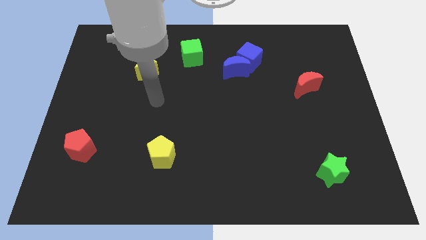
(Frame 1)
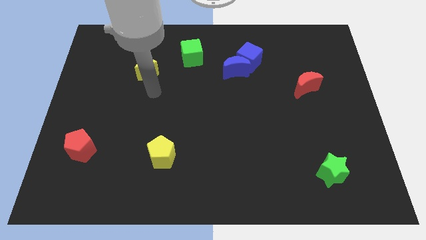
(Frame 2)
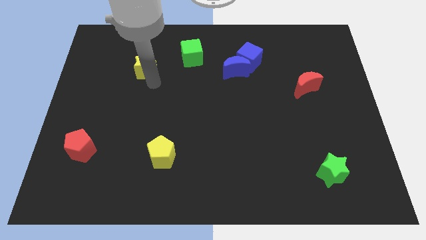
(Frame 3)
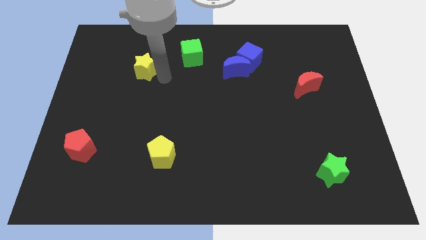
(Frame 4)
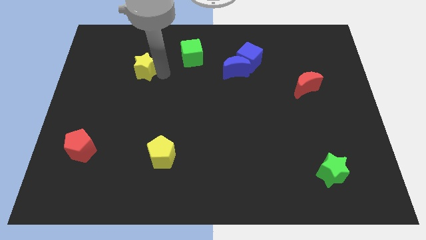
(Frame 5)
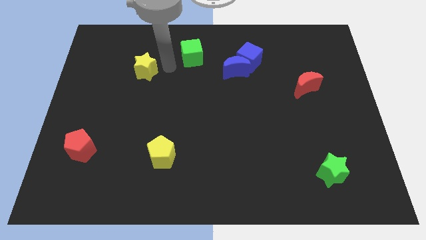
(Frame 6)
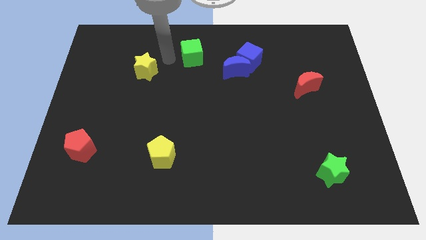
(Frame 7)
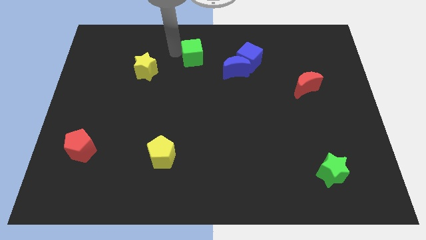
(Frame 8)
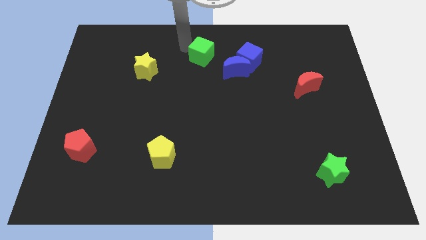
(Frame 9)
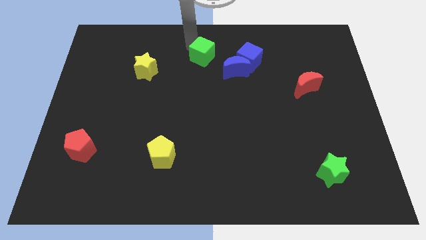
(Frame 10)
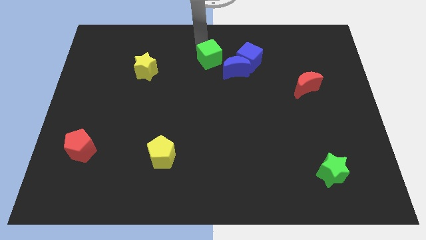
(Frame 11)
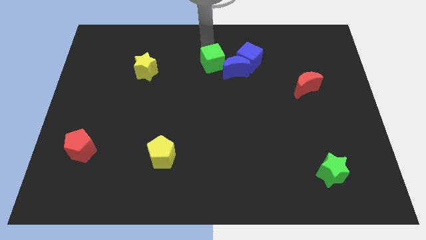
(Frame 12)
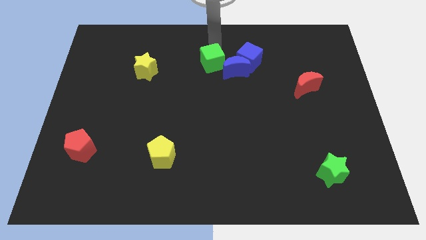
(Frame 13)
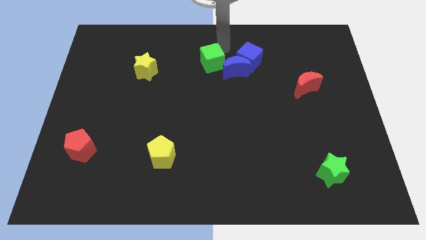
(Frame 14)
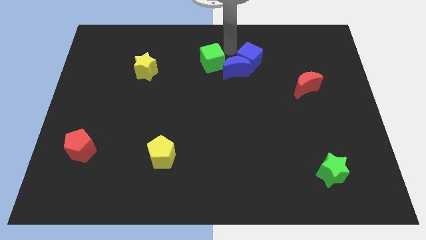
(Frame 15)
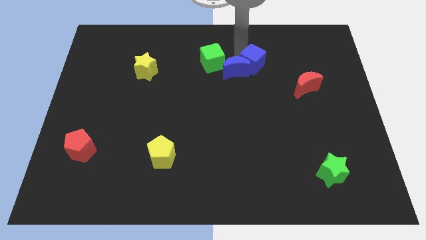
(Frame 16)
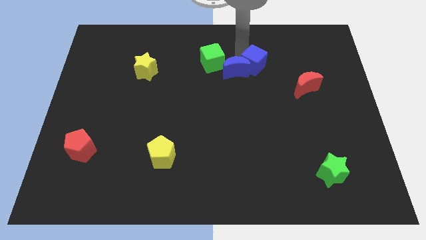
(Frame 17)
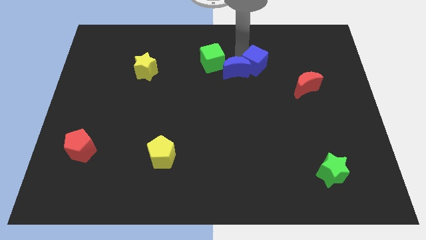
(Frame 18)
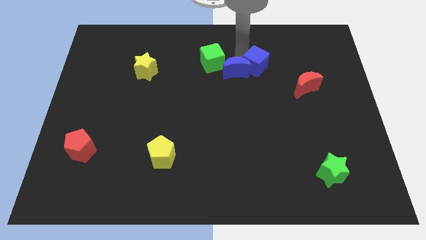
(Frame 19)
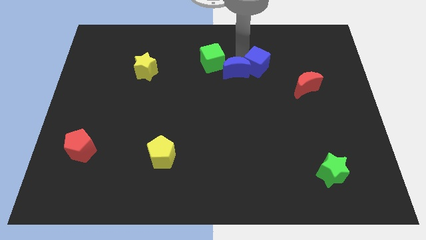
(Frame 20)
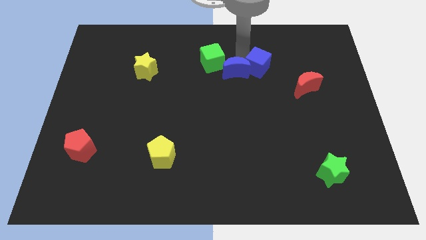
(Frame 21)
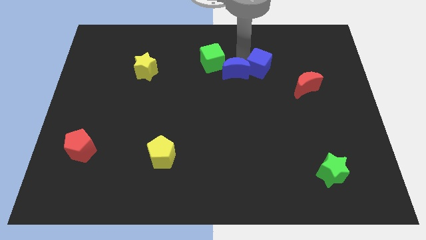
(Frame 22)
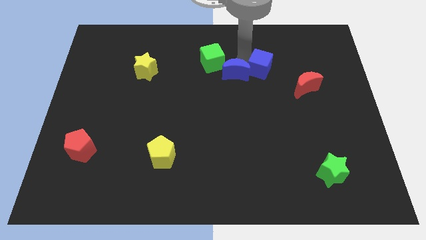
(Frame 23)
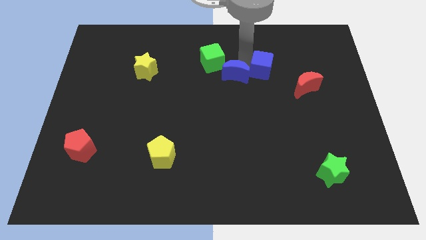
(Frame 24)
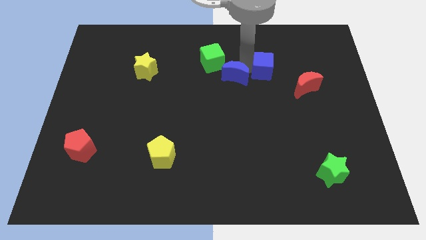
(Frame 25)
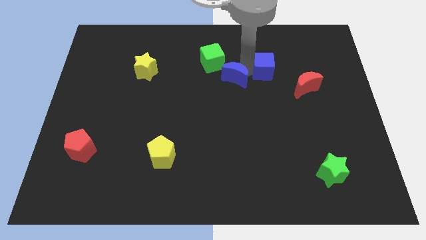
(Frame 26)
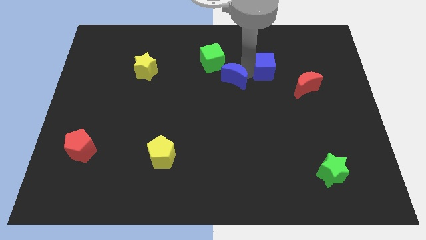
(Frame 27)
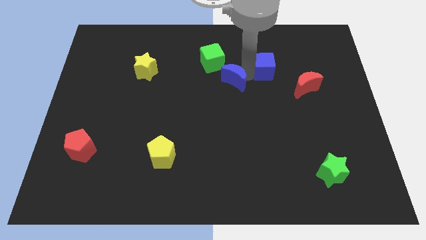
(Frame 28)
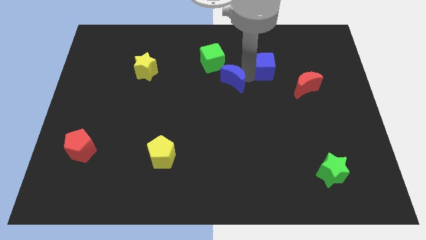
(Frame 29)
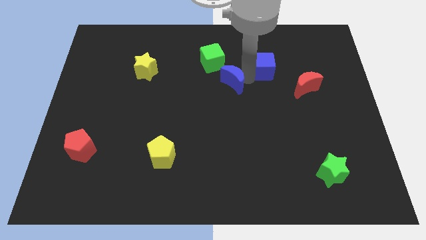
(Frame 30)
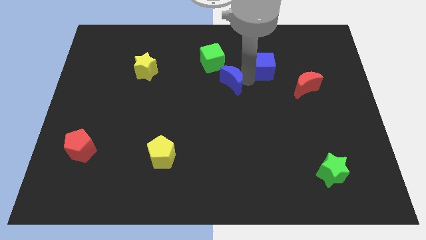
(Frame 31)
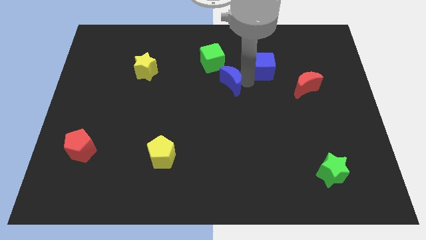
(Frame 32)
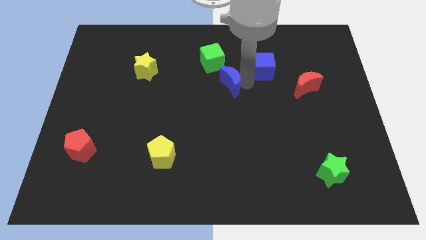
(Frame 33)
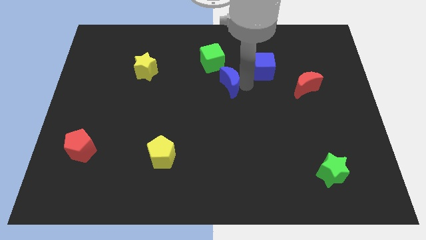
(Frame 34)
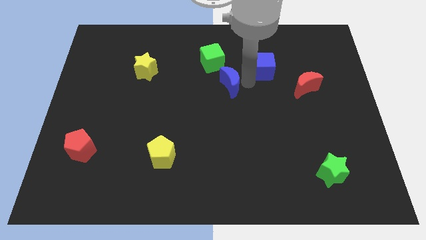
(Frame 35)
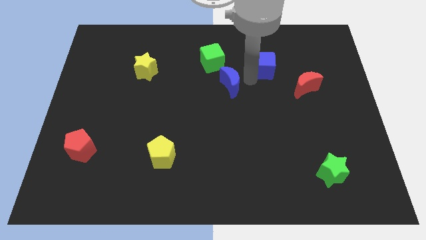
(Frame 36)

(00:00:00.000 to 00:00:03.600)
move the blue moon away from the blue cube

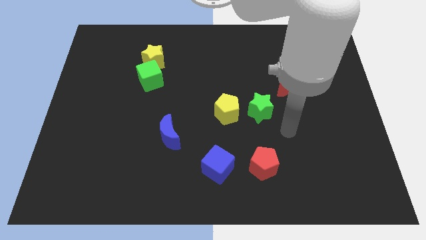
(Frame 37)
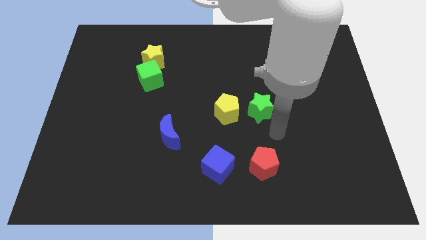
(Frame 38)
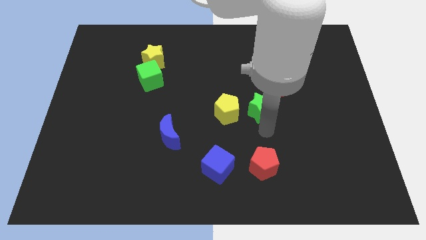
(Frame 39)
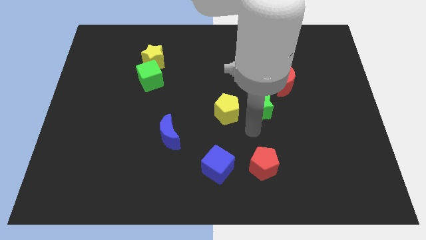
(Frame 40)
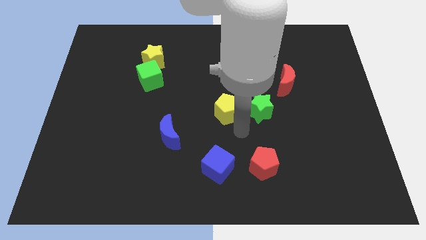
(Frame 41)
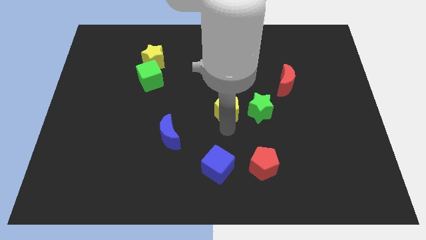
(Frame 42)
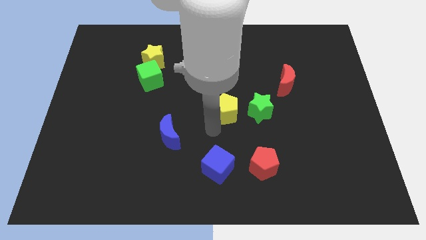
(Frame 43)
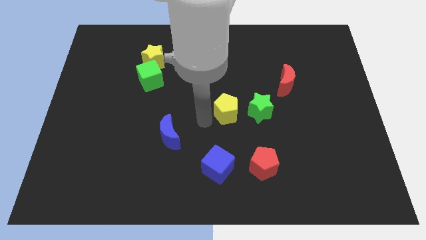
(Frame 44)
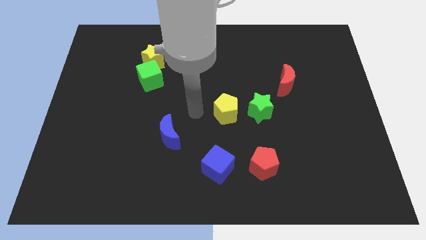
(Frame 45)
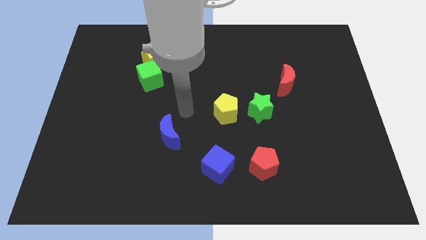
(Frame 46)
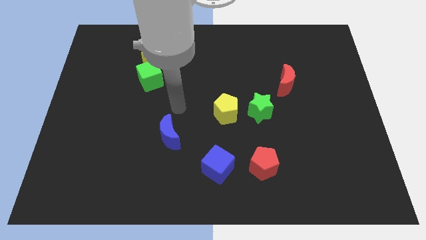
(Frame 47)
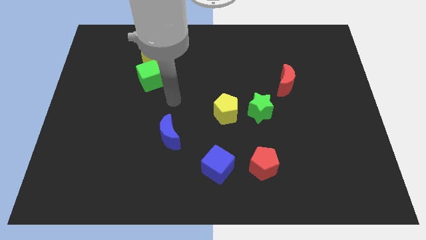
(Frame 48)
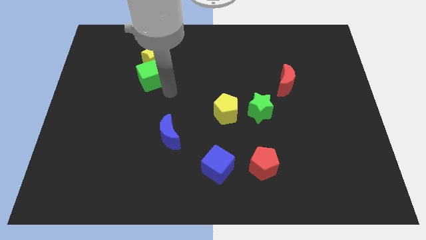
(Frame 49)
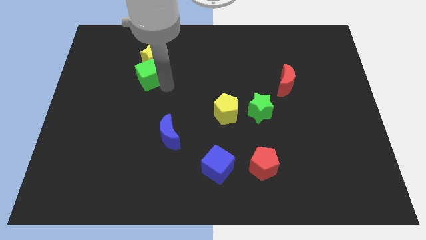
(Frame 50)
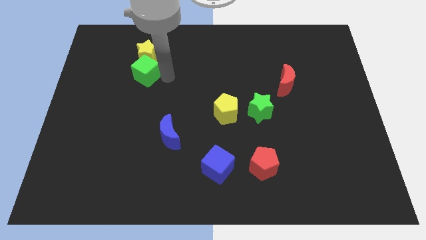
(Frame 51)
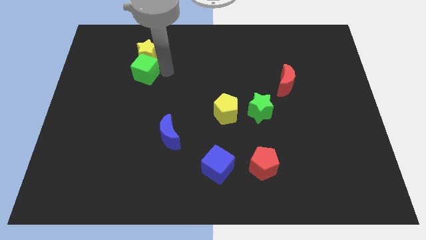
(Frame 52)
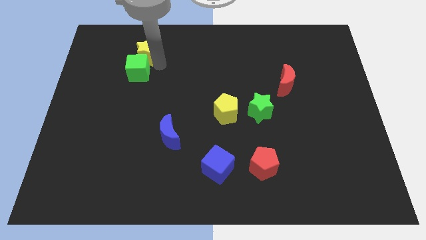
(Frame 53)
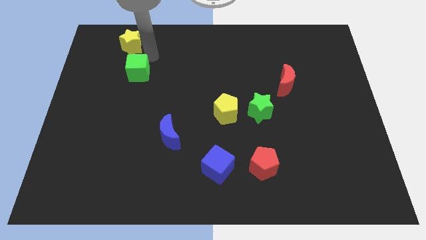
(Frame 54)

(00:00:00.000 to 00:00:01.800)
move the green cube away from the yellow star

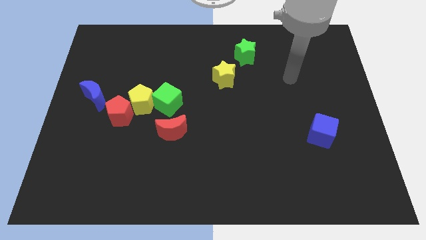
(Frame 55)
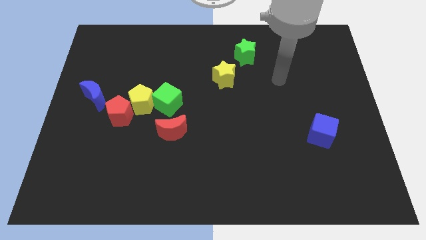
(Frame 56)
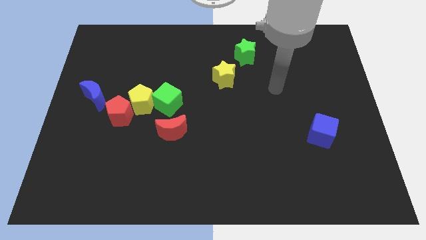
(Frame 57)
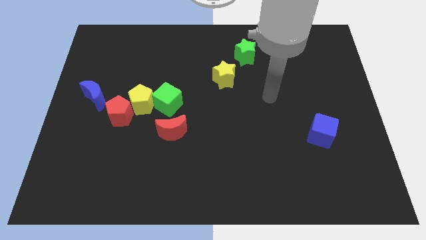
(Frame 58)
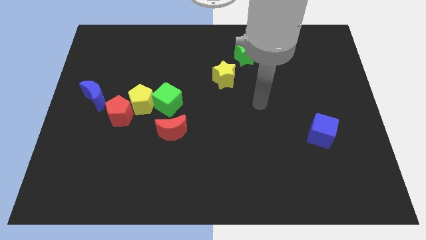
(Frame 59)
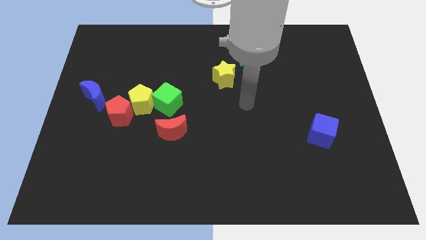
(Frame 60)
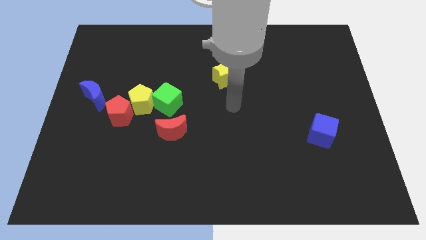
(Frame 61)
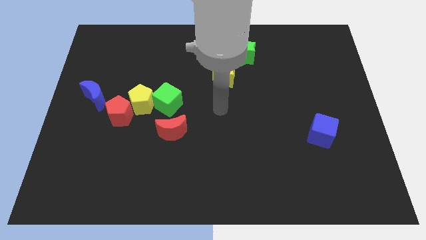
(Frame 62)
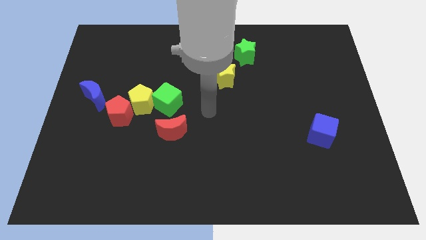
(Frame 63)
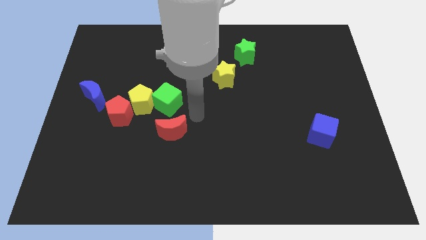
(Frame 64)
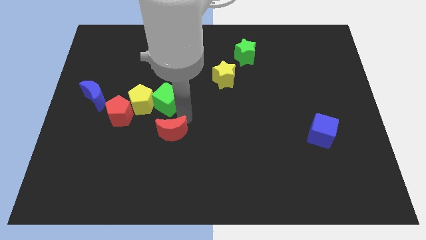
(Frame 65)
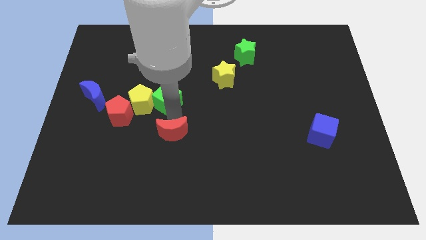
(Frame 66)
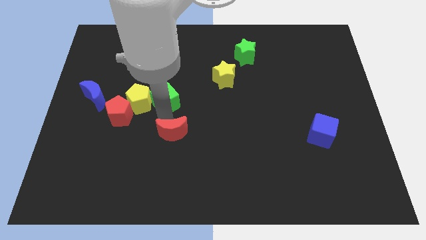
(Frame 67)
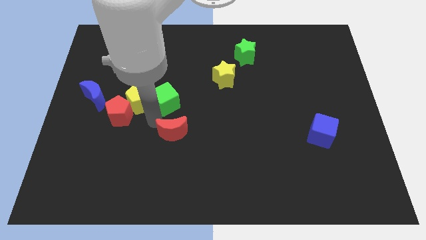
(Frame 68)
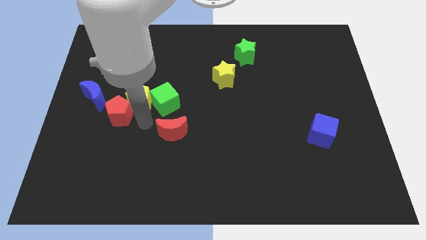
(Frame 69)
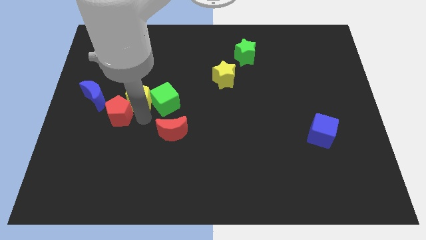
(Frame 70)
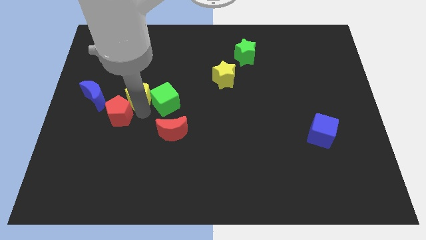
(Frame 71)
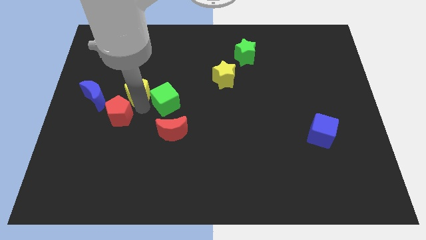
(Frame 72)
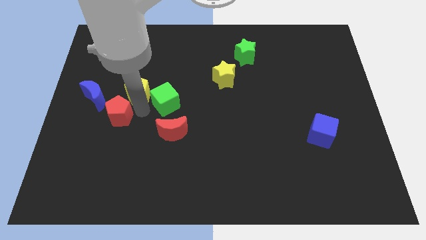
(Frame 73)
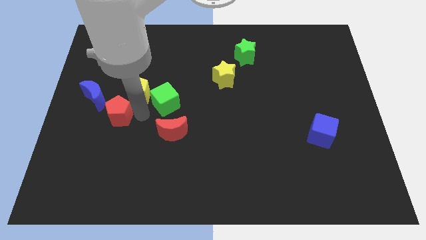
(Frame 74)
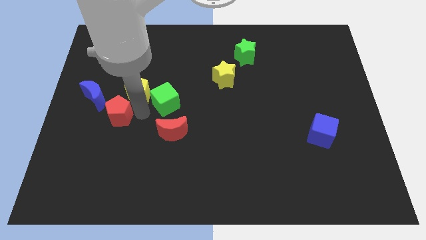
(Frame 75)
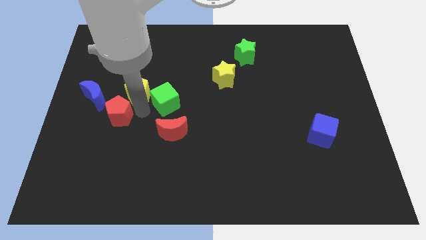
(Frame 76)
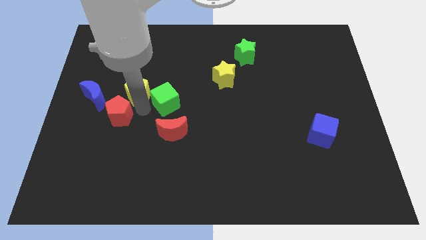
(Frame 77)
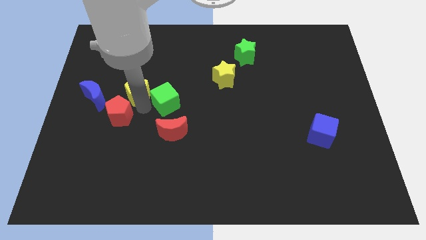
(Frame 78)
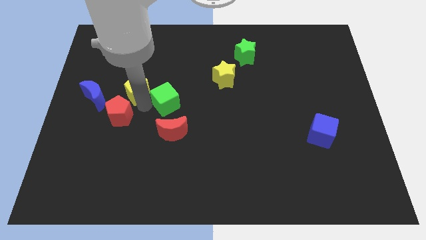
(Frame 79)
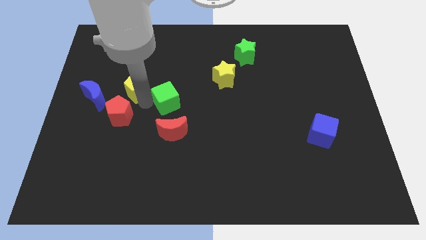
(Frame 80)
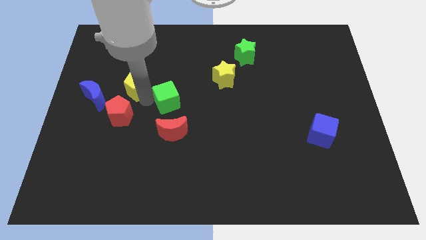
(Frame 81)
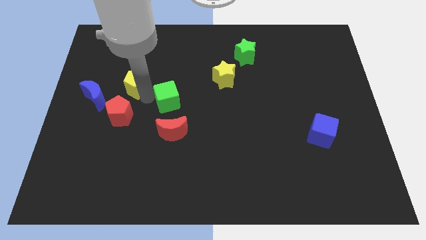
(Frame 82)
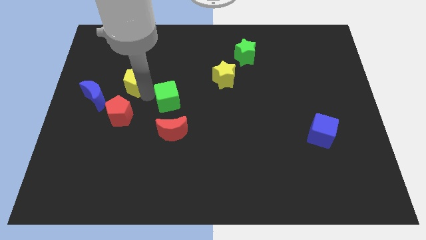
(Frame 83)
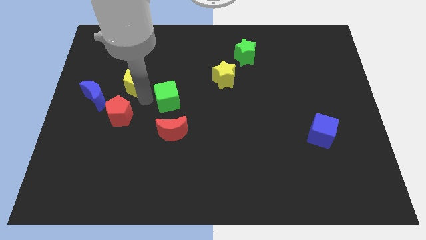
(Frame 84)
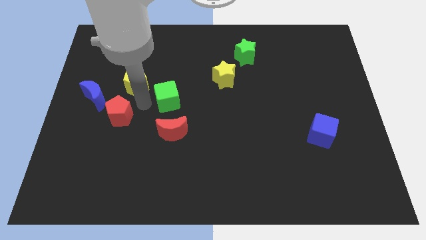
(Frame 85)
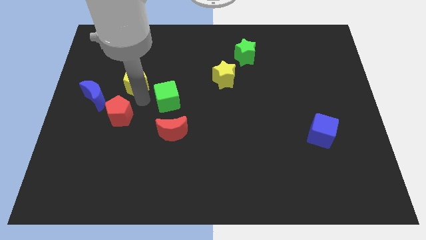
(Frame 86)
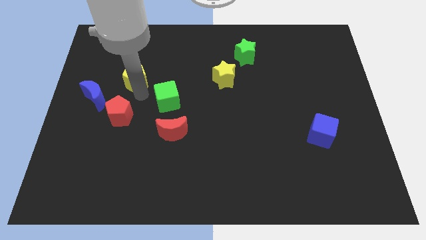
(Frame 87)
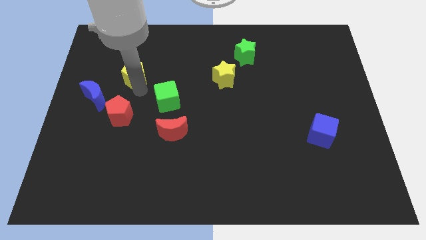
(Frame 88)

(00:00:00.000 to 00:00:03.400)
pull the yellow pentagon apart from the green cube and red pentagon

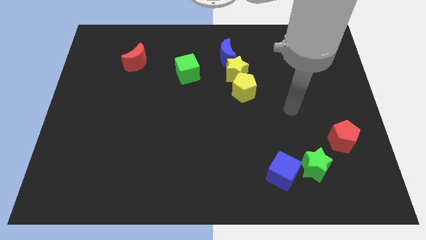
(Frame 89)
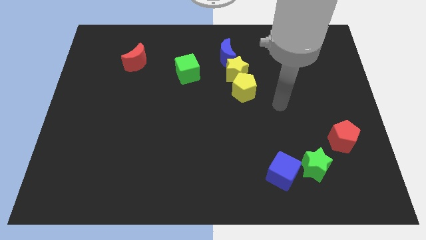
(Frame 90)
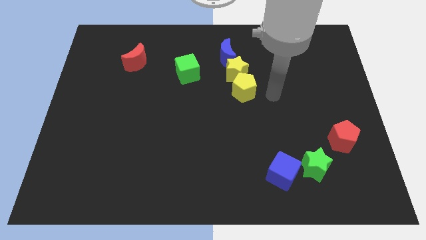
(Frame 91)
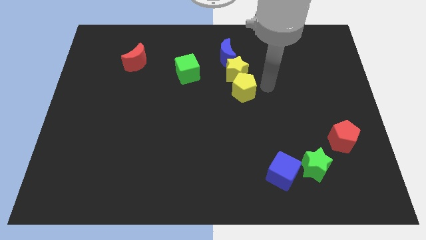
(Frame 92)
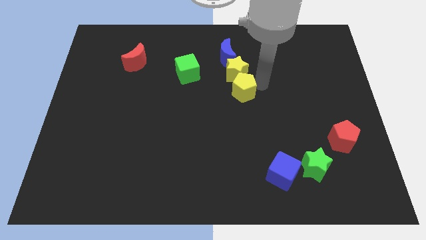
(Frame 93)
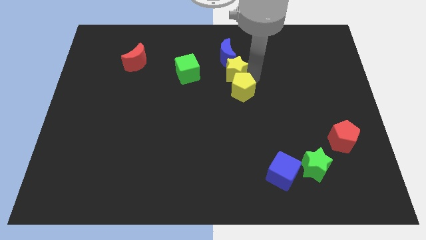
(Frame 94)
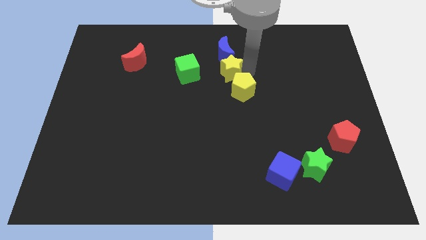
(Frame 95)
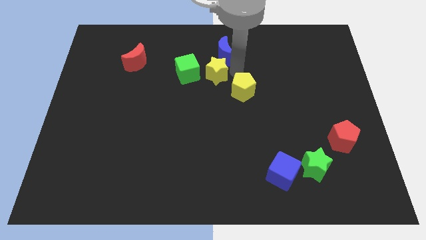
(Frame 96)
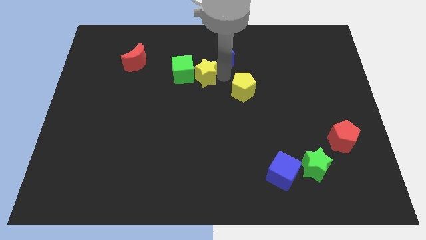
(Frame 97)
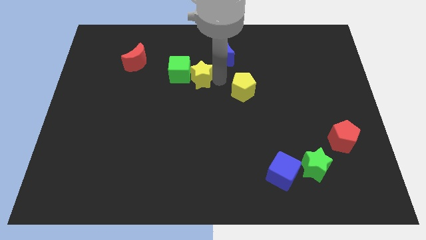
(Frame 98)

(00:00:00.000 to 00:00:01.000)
move the yellow pentagon away from the yellow star
